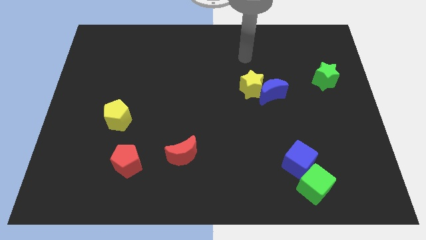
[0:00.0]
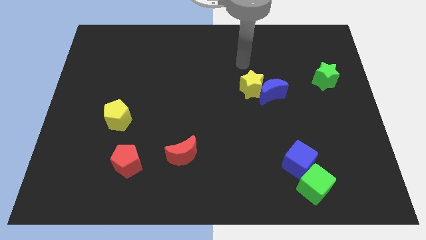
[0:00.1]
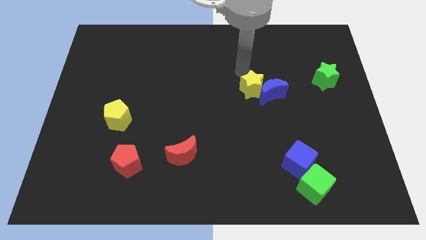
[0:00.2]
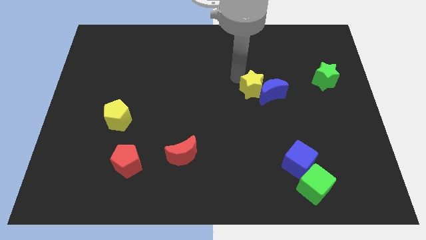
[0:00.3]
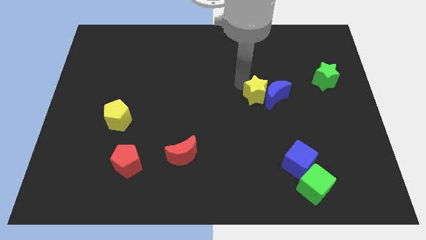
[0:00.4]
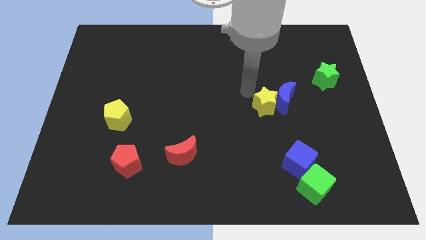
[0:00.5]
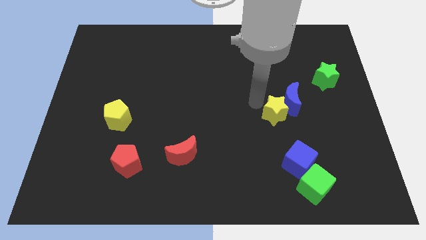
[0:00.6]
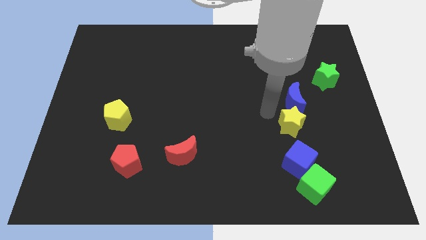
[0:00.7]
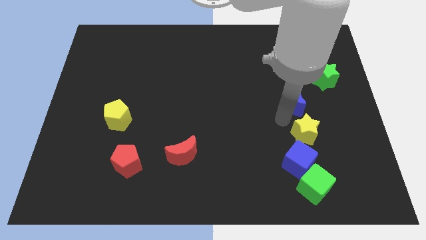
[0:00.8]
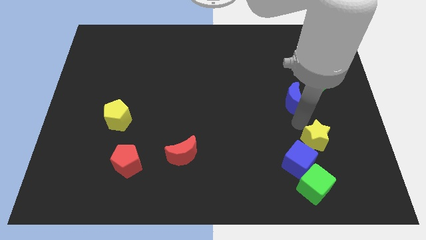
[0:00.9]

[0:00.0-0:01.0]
separate the blue moon from the yellow star

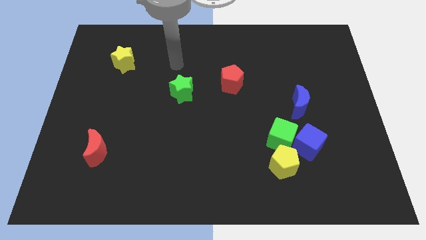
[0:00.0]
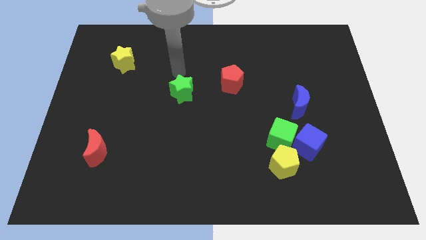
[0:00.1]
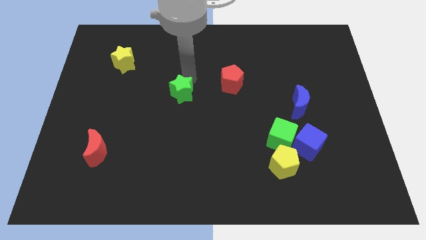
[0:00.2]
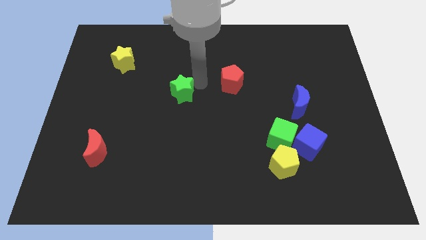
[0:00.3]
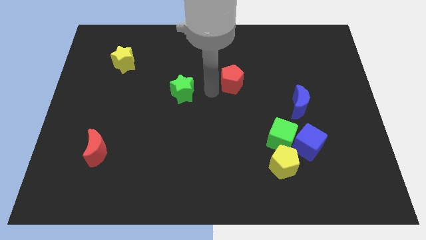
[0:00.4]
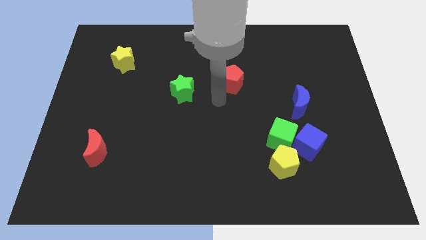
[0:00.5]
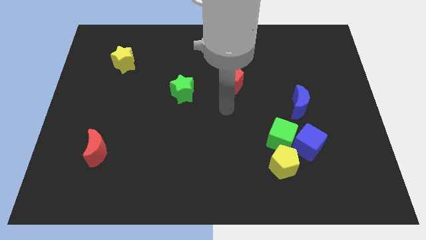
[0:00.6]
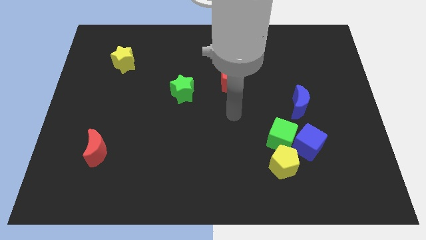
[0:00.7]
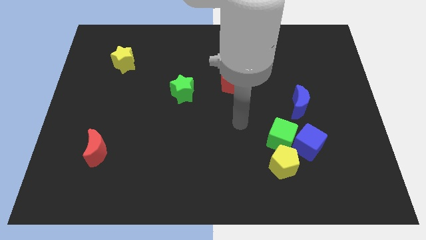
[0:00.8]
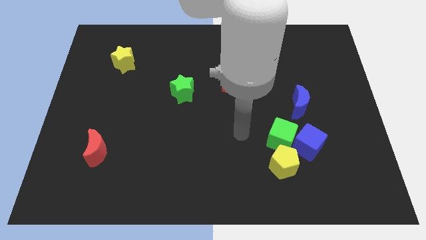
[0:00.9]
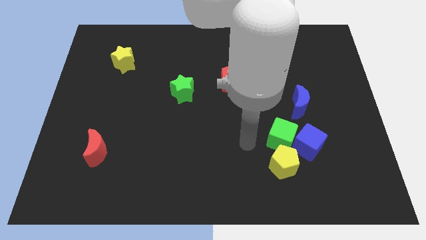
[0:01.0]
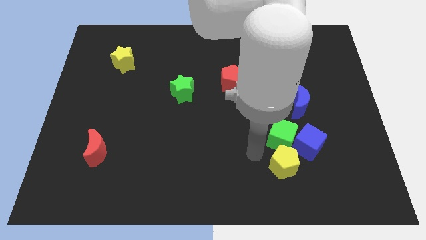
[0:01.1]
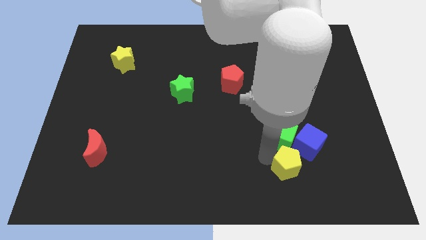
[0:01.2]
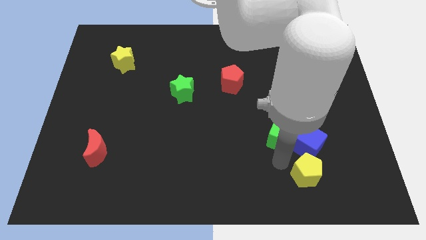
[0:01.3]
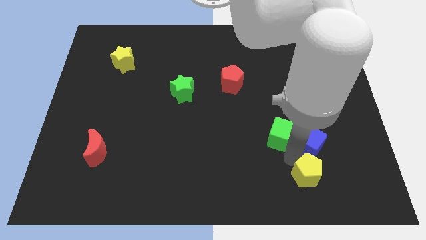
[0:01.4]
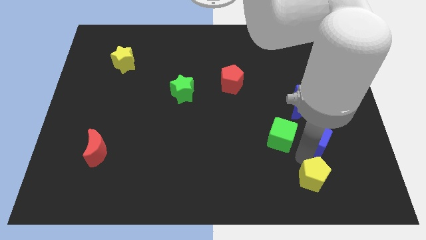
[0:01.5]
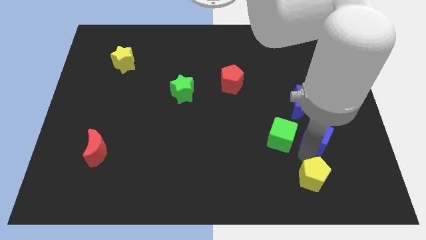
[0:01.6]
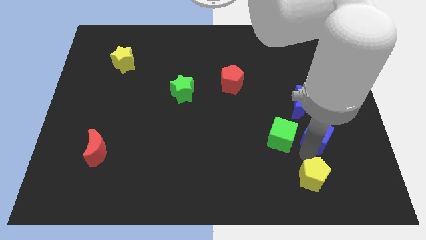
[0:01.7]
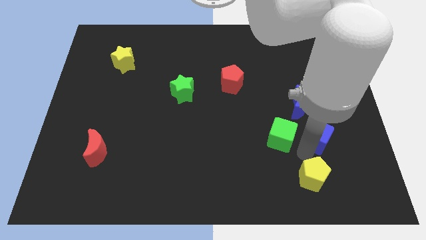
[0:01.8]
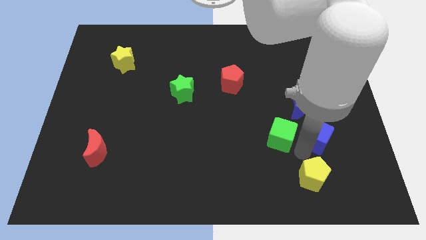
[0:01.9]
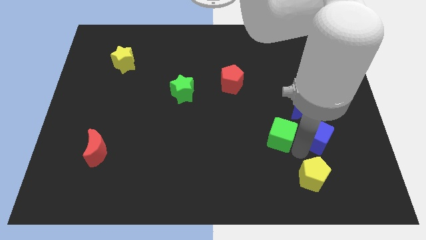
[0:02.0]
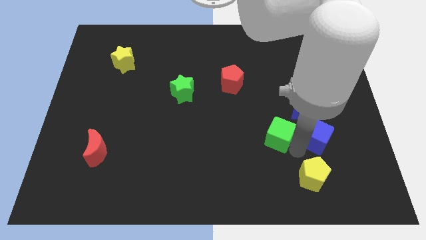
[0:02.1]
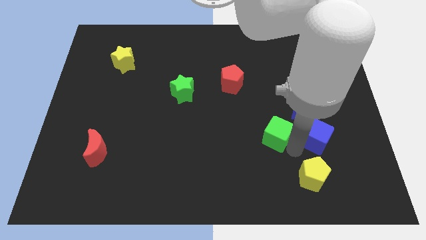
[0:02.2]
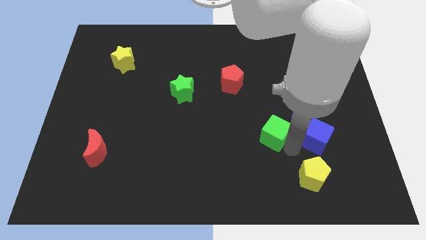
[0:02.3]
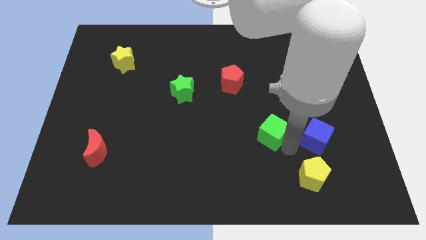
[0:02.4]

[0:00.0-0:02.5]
pull the green cube apart from the blue cube and yellow pentagon

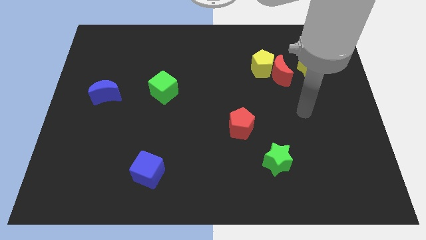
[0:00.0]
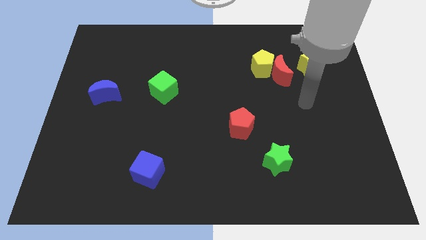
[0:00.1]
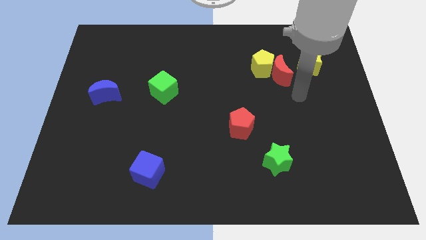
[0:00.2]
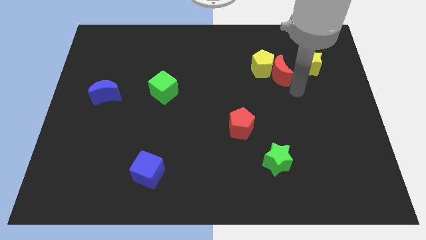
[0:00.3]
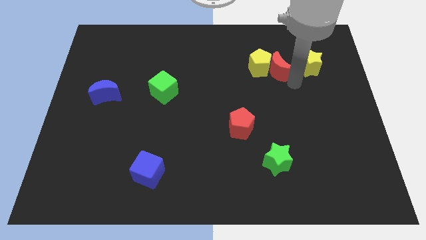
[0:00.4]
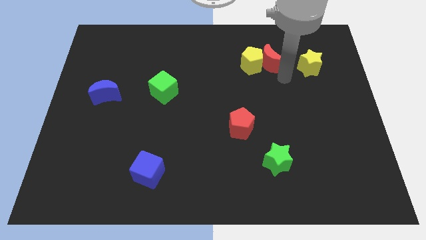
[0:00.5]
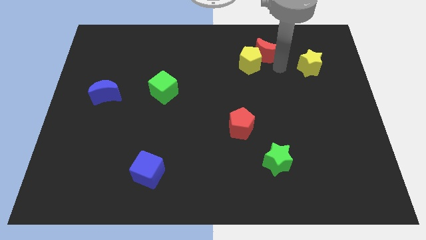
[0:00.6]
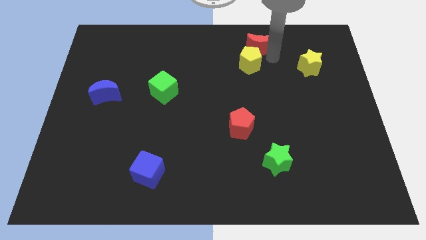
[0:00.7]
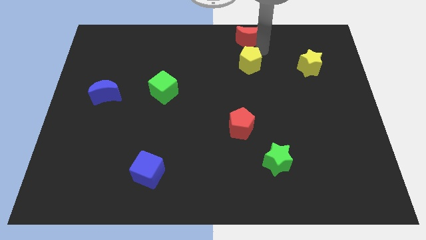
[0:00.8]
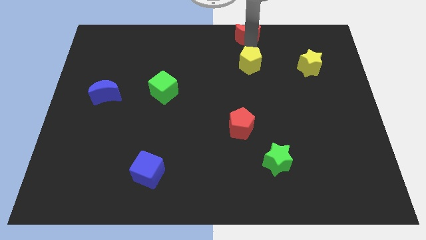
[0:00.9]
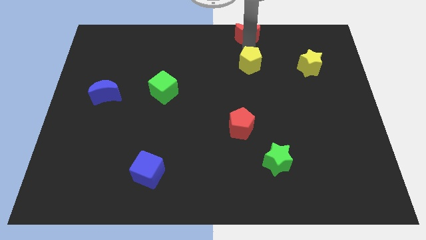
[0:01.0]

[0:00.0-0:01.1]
move the yellow pentagon away from the red moon

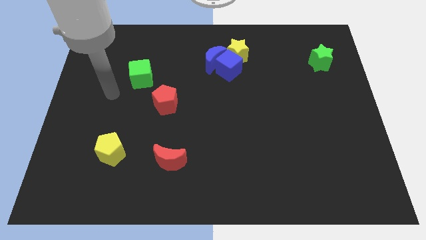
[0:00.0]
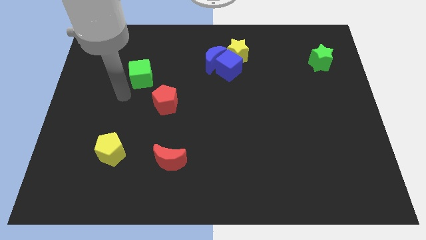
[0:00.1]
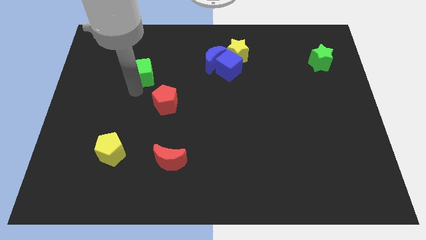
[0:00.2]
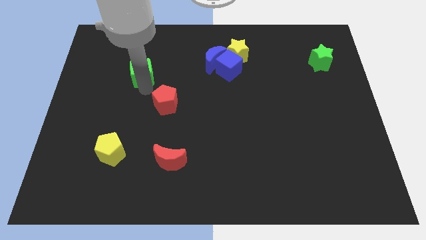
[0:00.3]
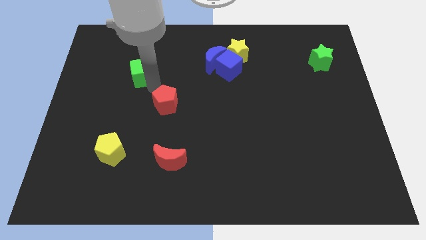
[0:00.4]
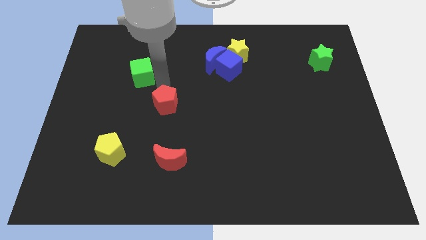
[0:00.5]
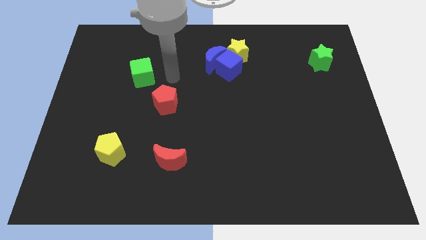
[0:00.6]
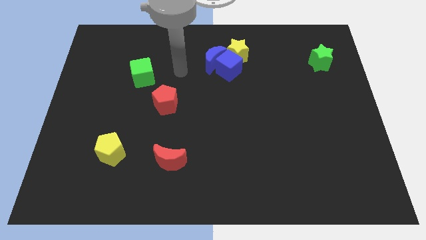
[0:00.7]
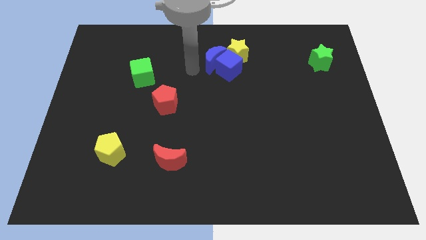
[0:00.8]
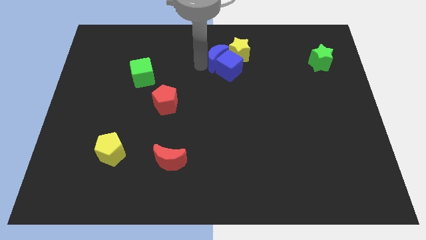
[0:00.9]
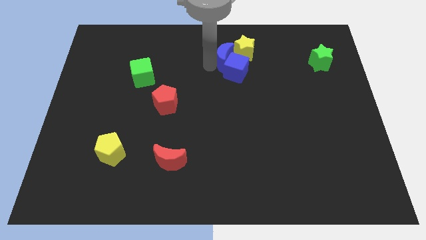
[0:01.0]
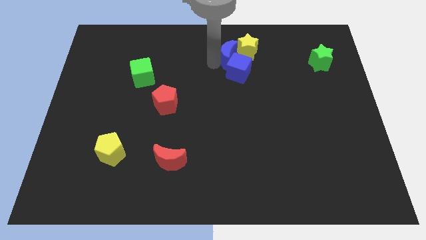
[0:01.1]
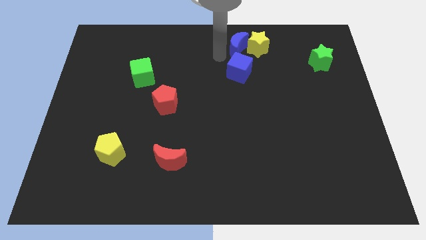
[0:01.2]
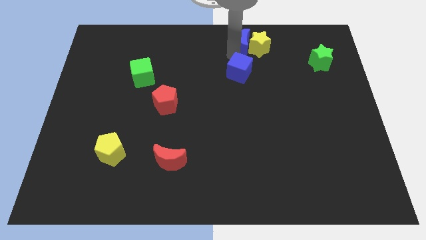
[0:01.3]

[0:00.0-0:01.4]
separate the blue cube from the blue moon and yellow star

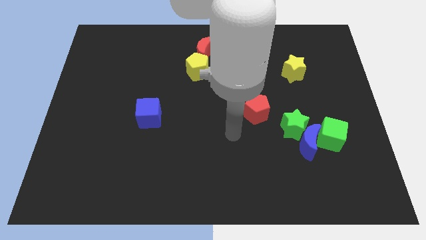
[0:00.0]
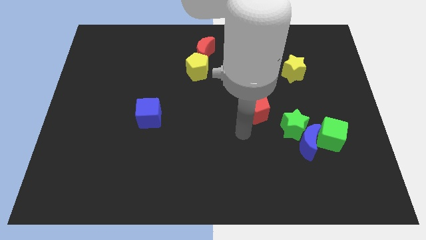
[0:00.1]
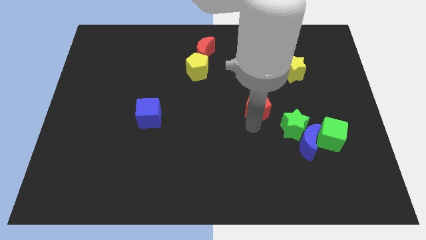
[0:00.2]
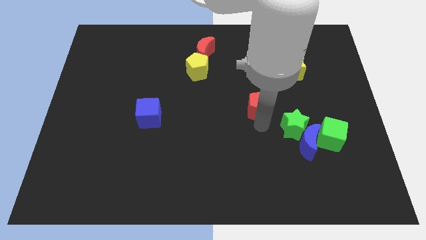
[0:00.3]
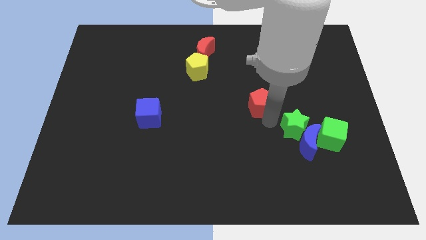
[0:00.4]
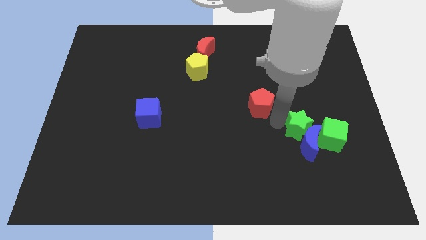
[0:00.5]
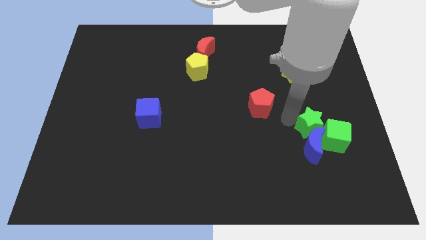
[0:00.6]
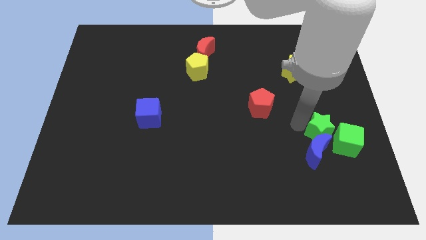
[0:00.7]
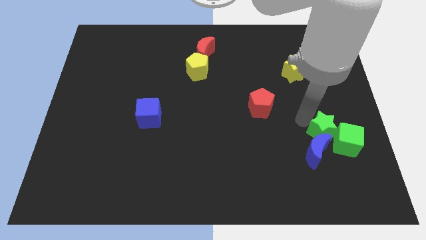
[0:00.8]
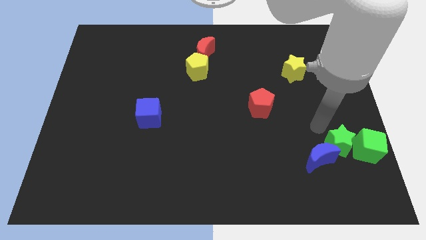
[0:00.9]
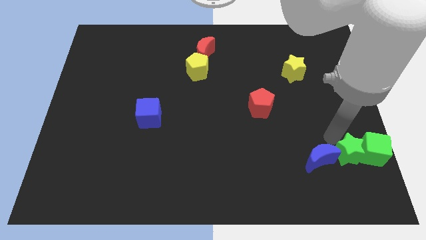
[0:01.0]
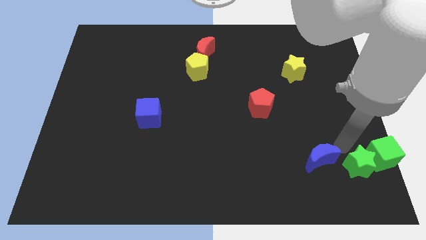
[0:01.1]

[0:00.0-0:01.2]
separate the blue moon from the green star and green cube

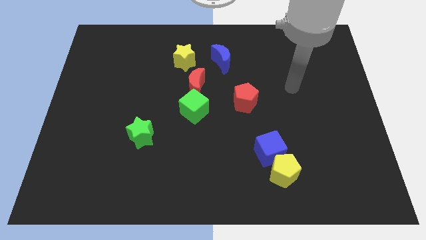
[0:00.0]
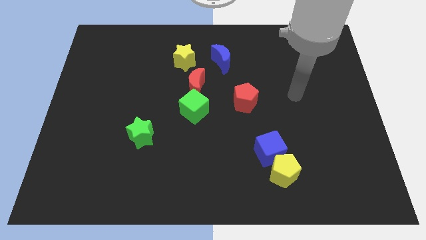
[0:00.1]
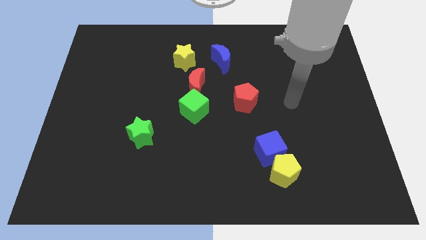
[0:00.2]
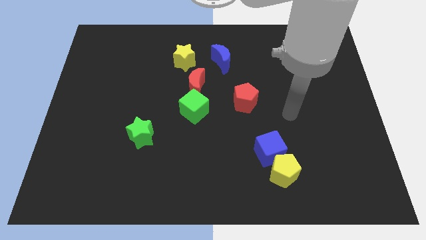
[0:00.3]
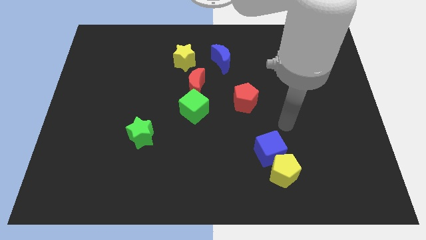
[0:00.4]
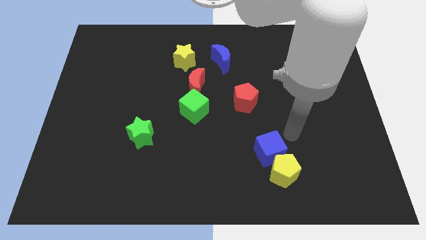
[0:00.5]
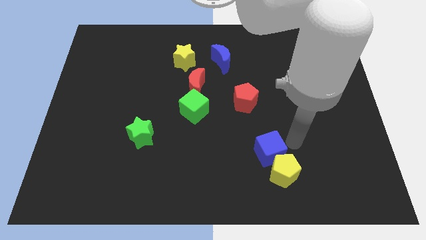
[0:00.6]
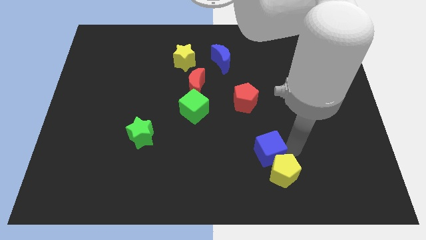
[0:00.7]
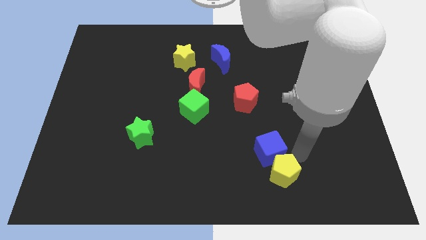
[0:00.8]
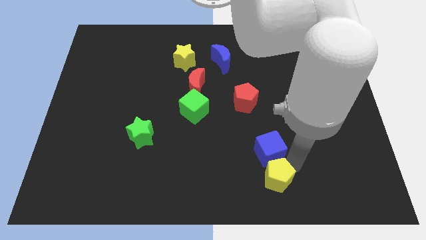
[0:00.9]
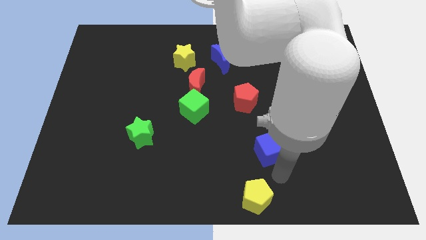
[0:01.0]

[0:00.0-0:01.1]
separate the blue cube from the yellow pentagon

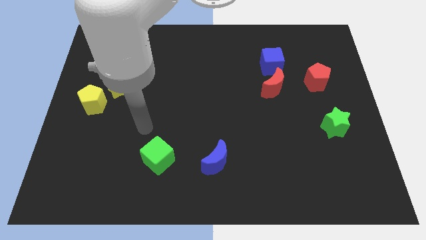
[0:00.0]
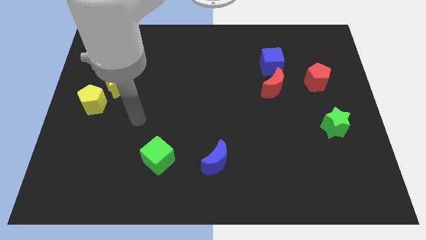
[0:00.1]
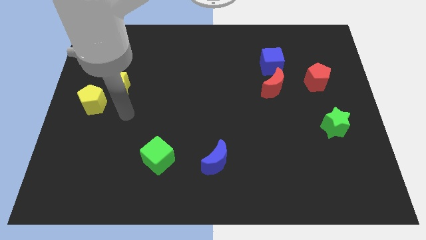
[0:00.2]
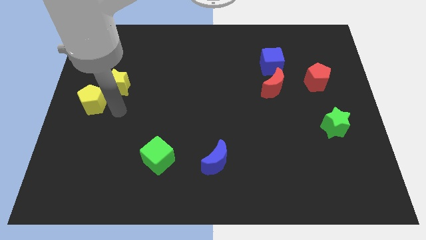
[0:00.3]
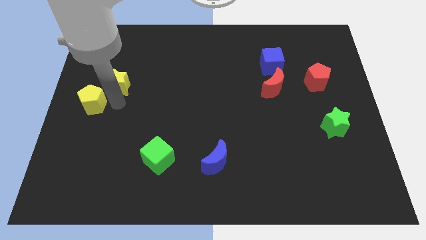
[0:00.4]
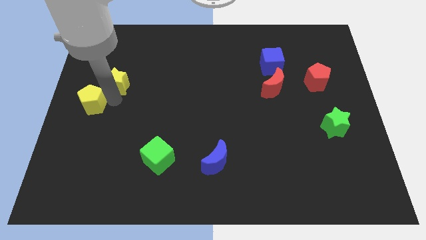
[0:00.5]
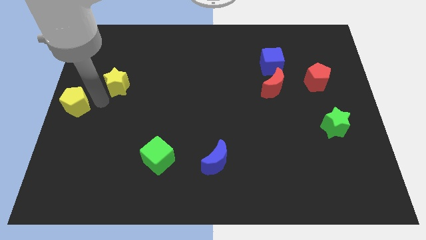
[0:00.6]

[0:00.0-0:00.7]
pull the yellow star apart from the yellow pentagon

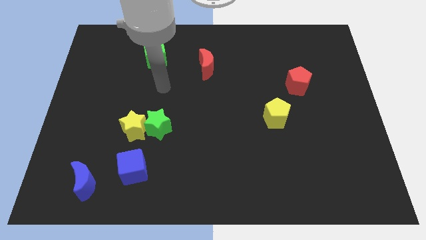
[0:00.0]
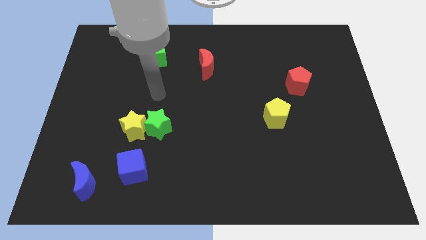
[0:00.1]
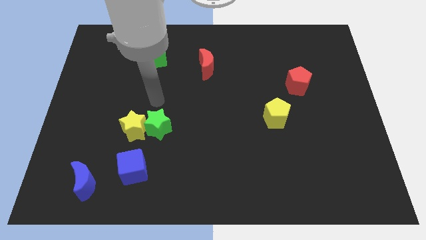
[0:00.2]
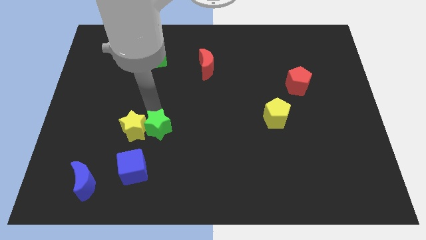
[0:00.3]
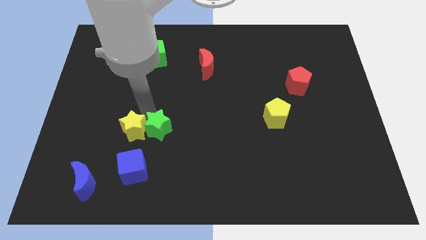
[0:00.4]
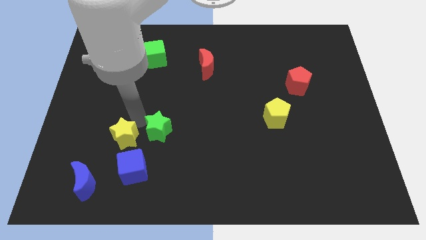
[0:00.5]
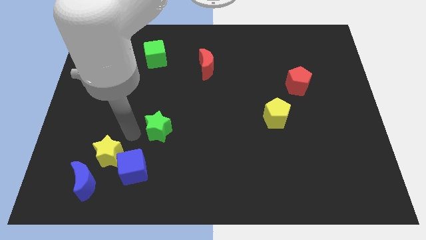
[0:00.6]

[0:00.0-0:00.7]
move the green star away from the yellow star
